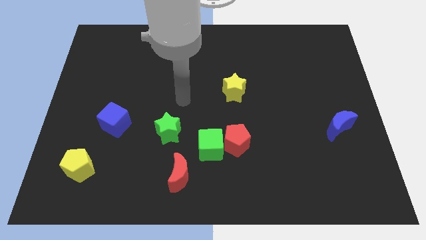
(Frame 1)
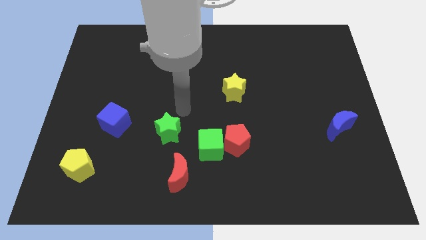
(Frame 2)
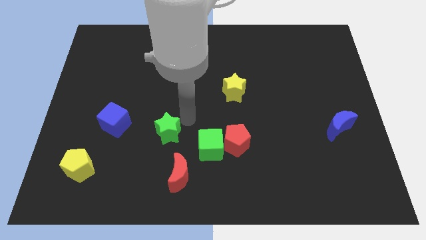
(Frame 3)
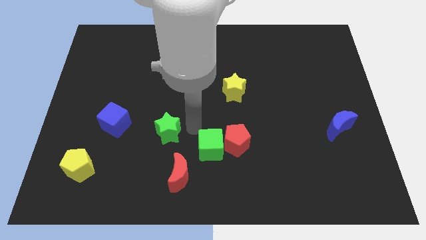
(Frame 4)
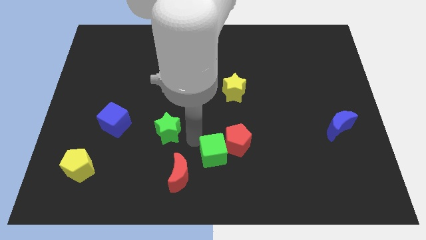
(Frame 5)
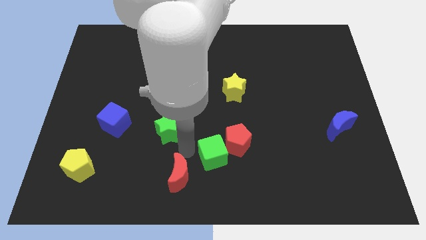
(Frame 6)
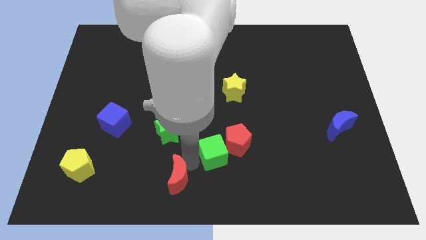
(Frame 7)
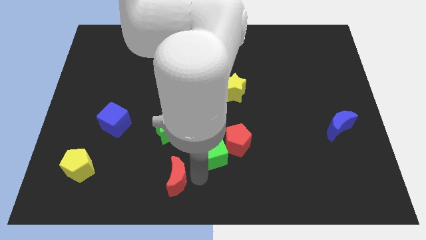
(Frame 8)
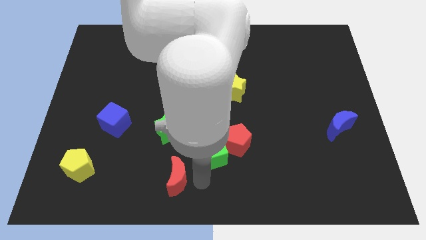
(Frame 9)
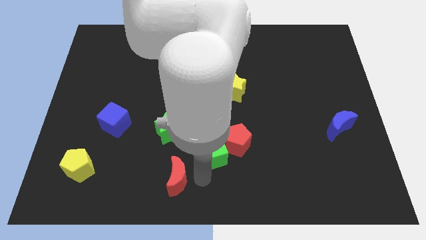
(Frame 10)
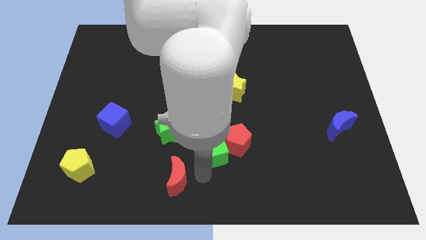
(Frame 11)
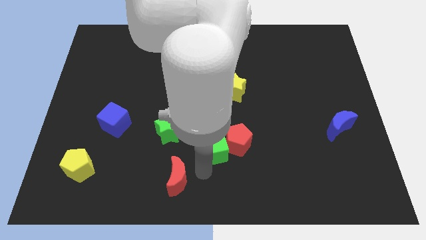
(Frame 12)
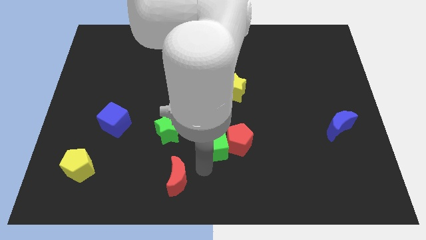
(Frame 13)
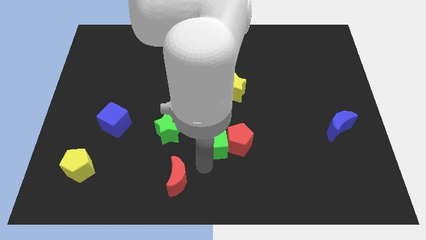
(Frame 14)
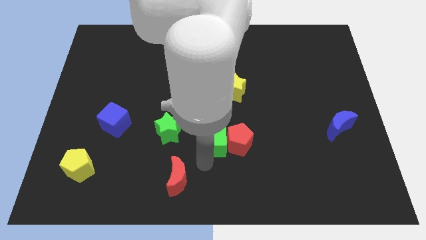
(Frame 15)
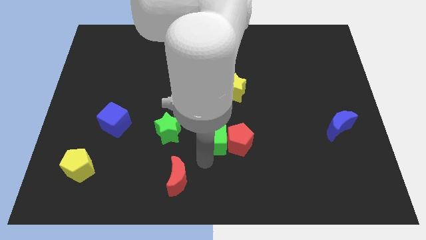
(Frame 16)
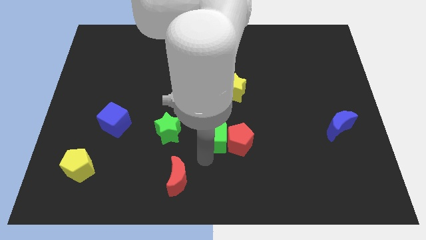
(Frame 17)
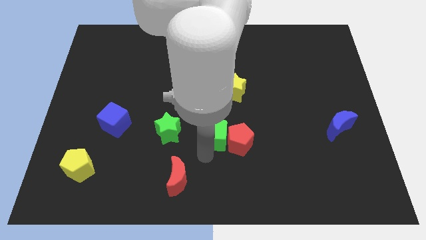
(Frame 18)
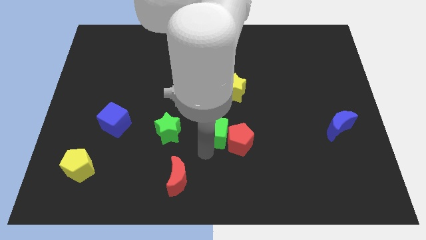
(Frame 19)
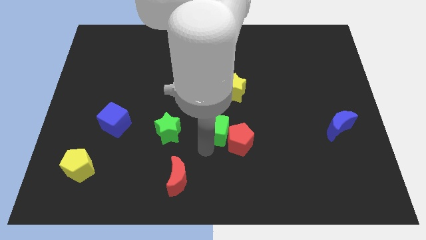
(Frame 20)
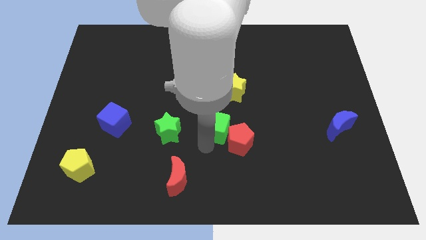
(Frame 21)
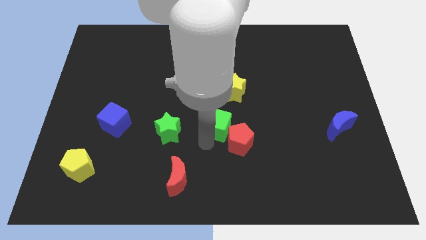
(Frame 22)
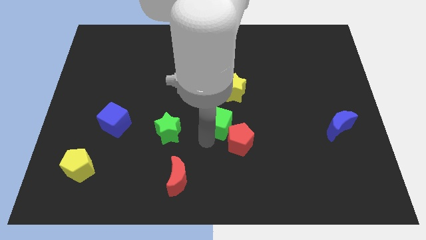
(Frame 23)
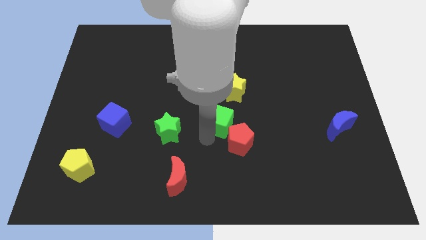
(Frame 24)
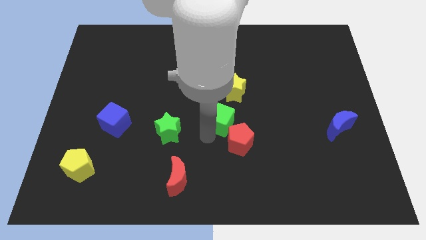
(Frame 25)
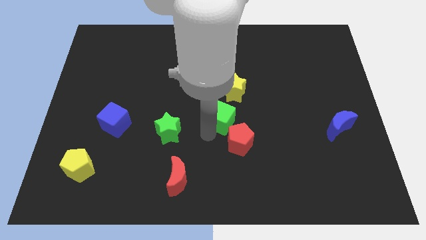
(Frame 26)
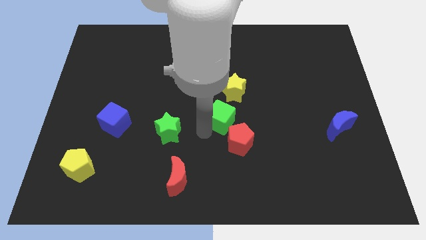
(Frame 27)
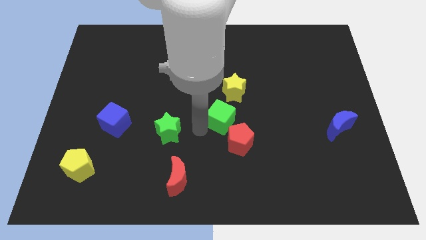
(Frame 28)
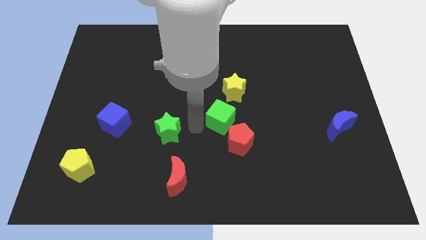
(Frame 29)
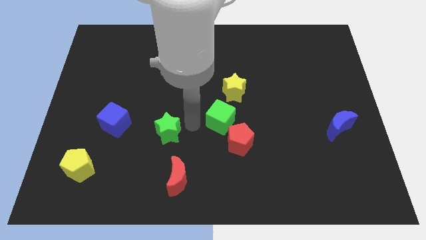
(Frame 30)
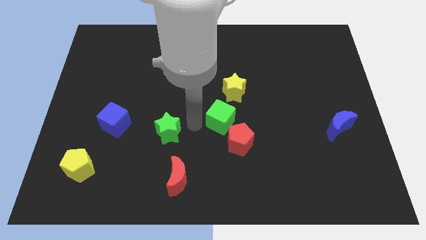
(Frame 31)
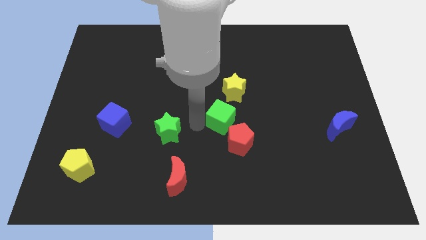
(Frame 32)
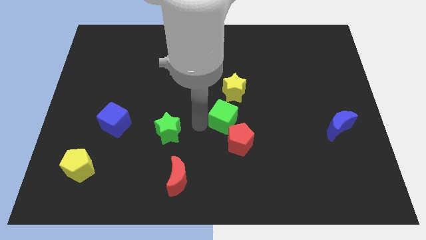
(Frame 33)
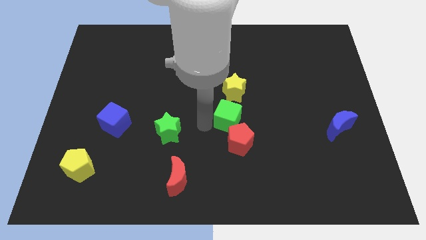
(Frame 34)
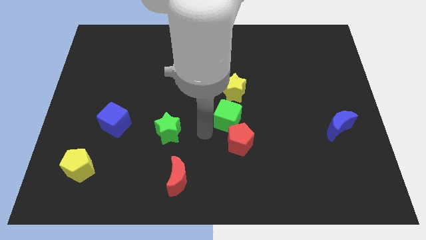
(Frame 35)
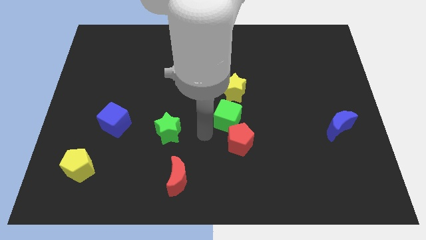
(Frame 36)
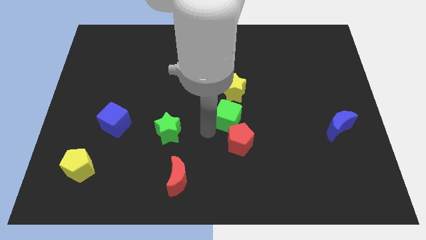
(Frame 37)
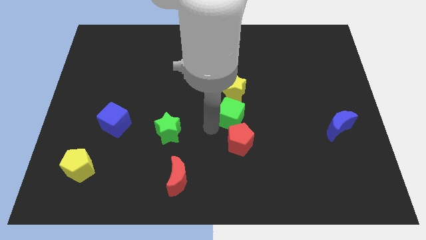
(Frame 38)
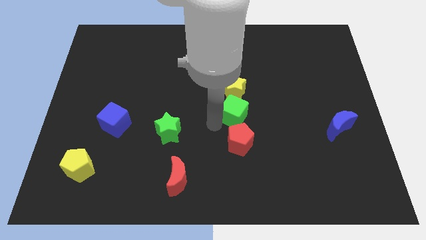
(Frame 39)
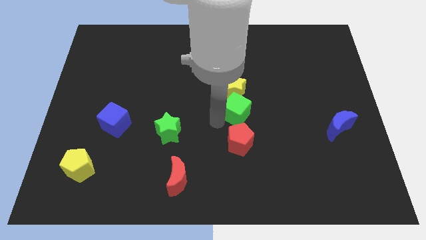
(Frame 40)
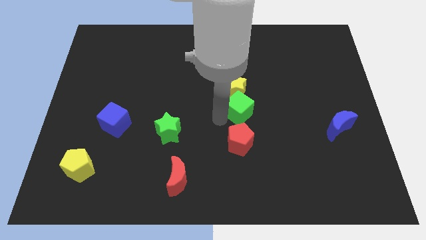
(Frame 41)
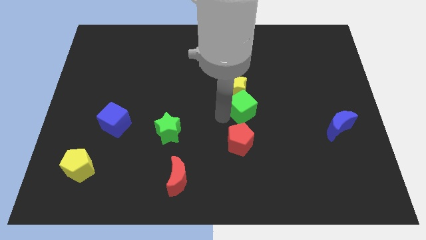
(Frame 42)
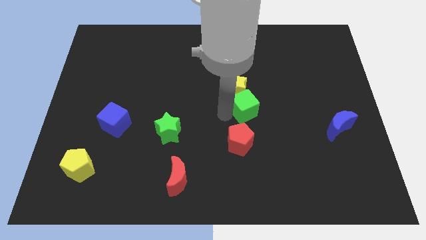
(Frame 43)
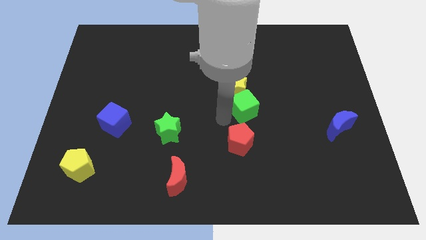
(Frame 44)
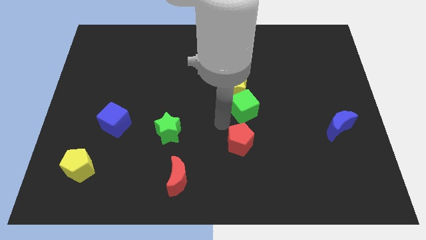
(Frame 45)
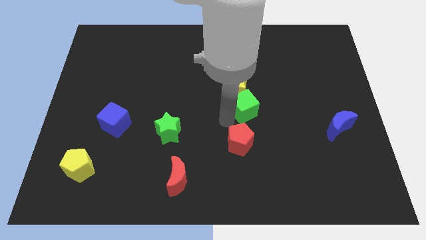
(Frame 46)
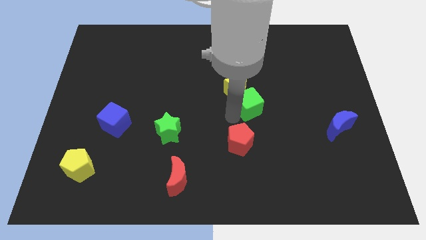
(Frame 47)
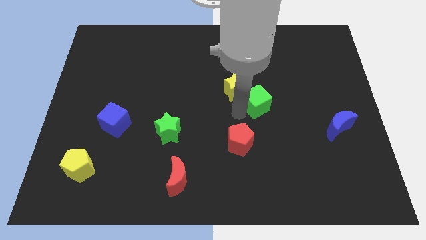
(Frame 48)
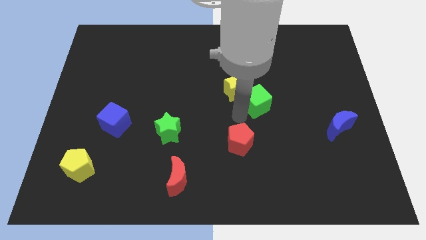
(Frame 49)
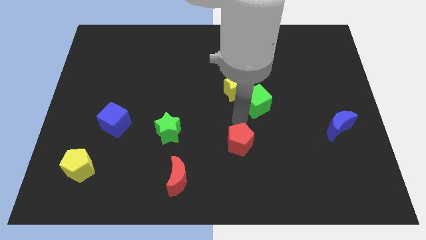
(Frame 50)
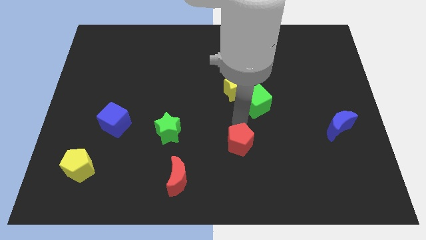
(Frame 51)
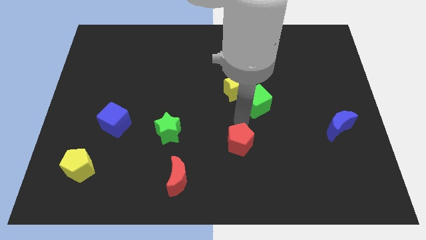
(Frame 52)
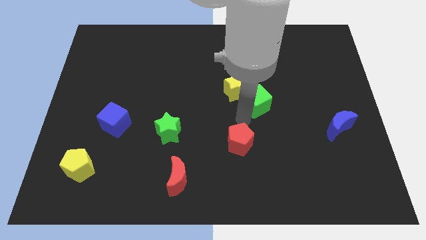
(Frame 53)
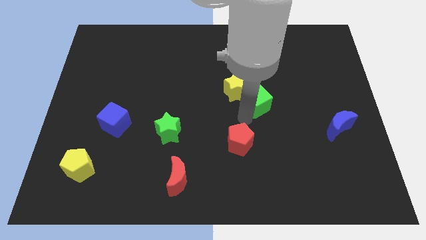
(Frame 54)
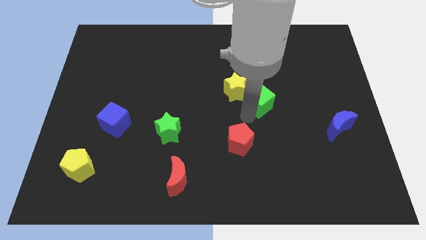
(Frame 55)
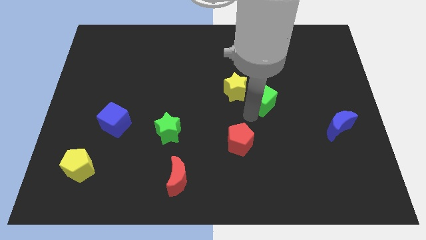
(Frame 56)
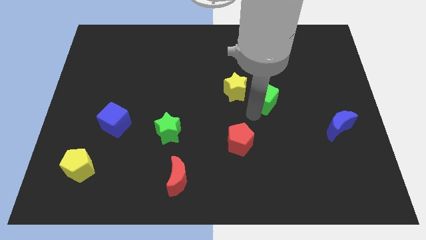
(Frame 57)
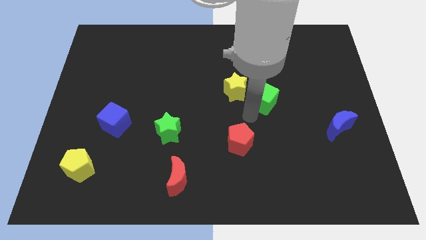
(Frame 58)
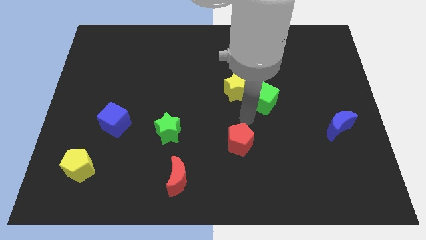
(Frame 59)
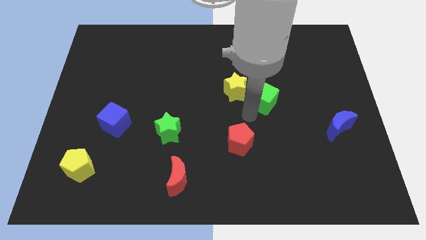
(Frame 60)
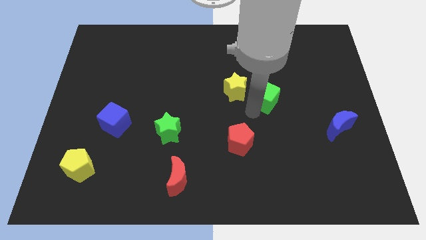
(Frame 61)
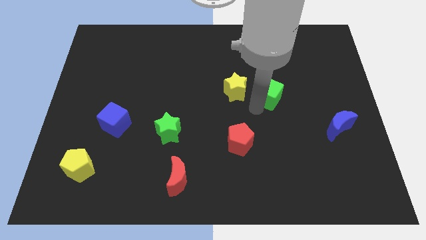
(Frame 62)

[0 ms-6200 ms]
push the green cube up and then to the right

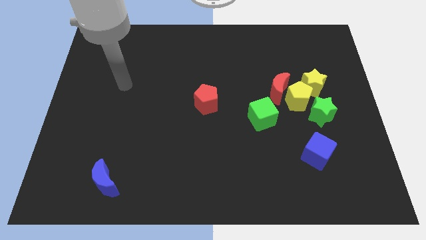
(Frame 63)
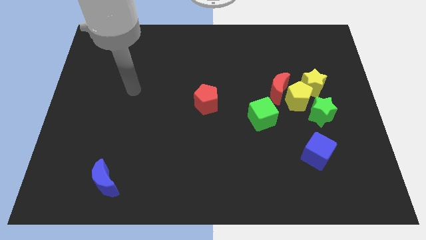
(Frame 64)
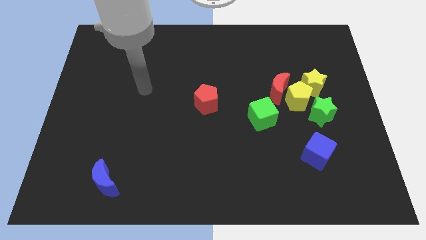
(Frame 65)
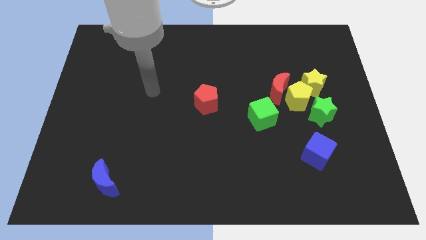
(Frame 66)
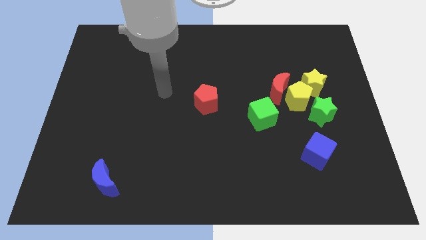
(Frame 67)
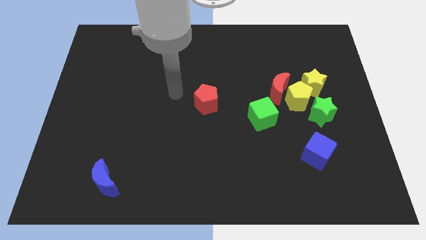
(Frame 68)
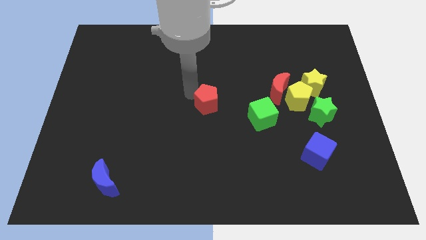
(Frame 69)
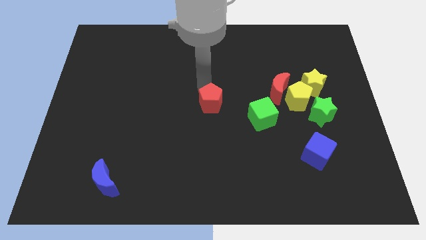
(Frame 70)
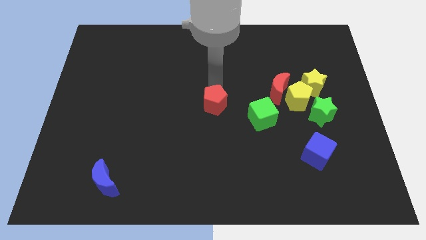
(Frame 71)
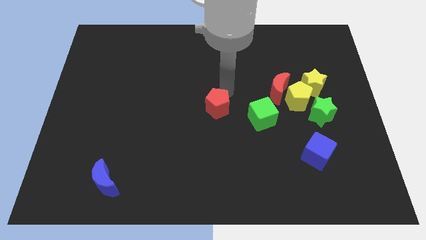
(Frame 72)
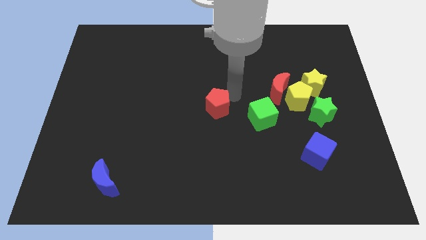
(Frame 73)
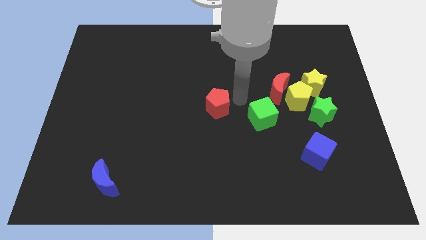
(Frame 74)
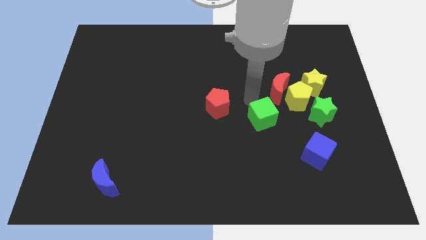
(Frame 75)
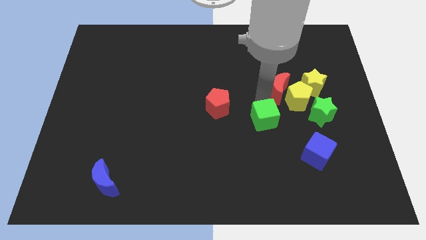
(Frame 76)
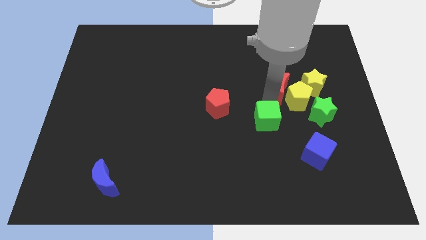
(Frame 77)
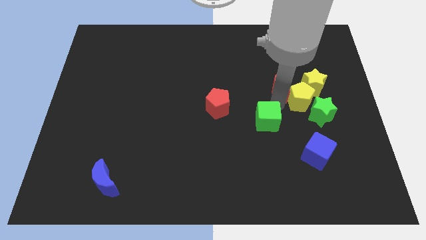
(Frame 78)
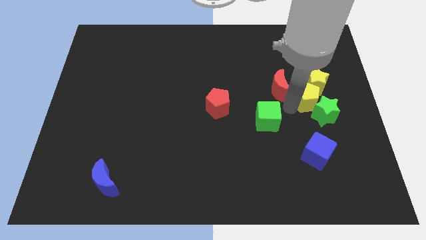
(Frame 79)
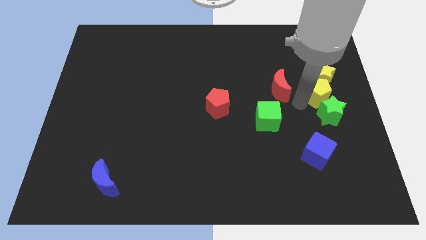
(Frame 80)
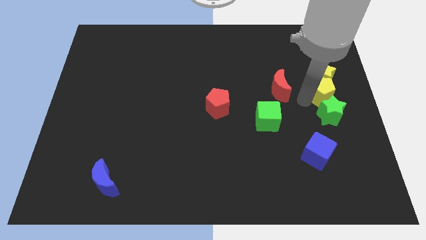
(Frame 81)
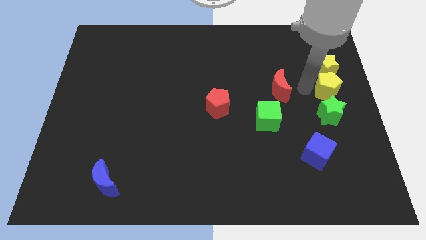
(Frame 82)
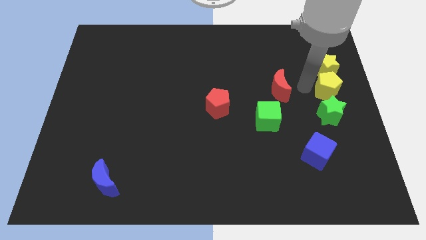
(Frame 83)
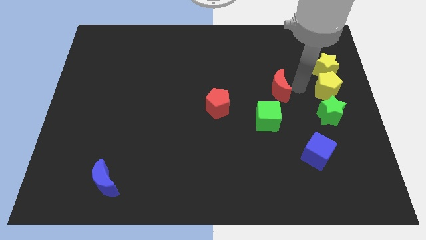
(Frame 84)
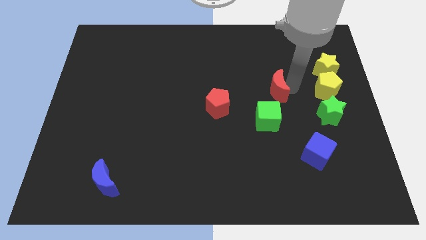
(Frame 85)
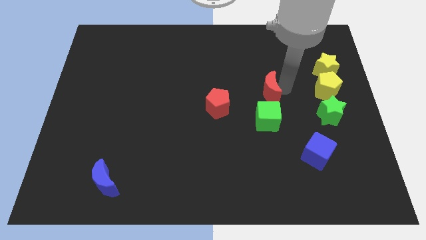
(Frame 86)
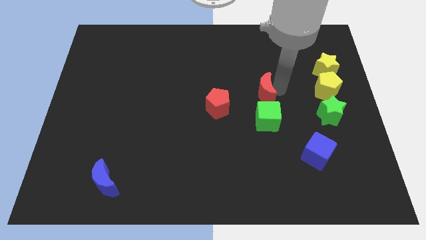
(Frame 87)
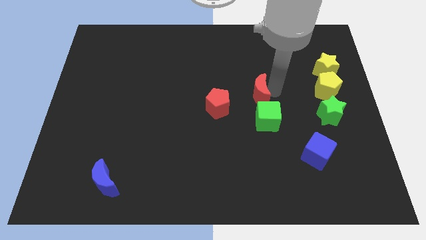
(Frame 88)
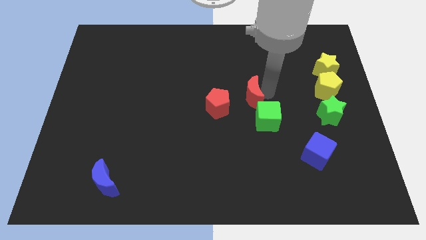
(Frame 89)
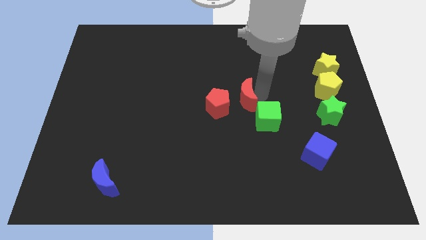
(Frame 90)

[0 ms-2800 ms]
push the red moon to the left a bit
